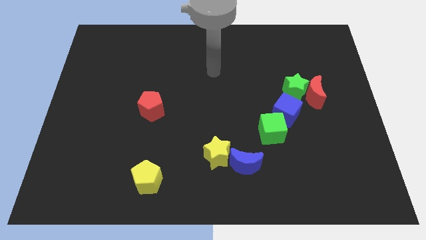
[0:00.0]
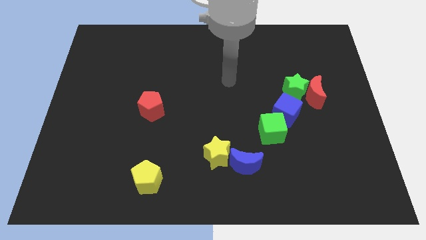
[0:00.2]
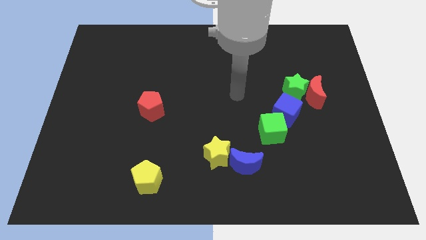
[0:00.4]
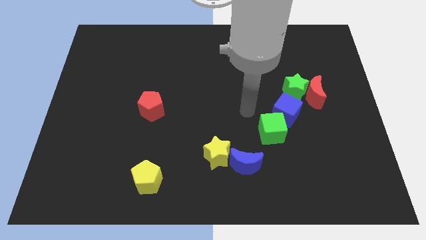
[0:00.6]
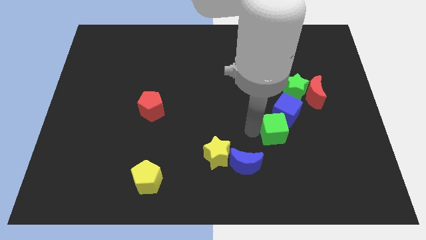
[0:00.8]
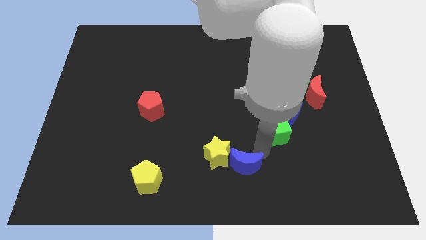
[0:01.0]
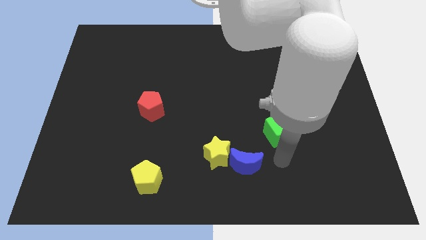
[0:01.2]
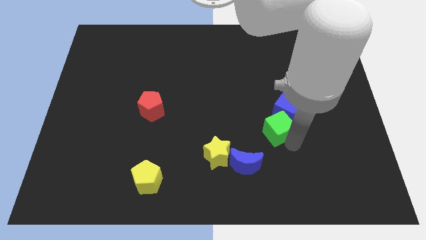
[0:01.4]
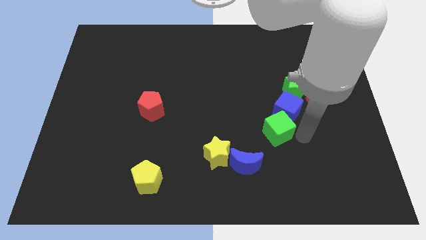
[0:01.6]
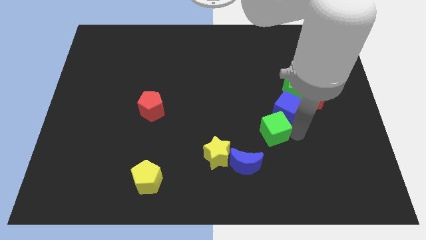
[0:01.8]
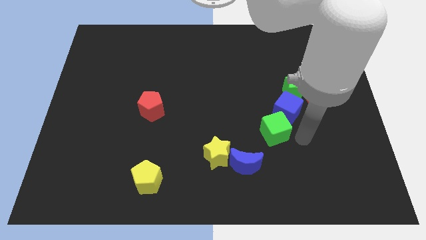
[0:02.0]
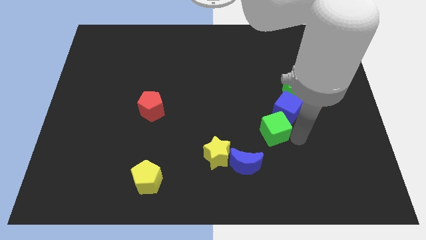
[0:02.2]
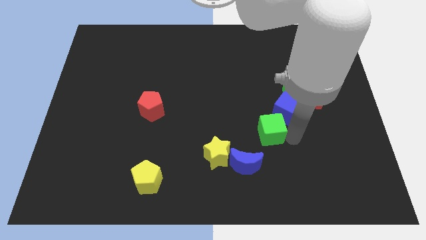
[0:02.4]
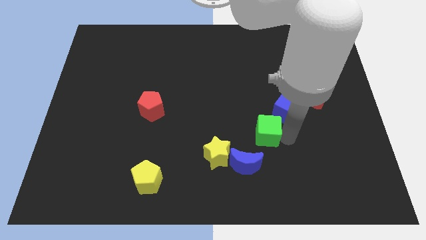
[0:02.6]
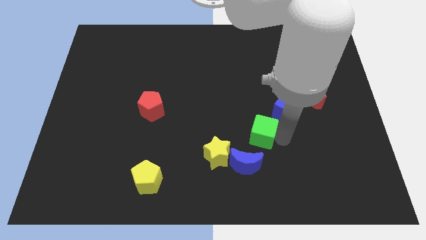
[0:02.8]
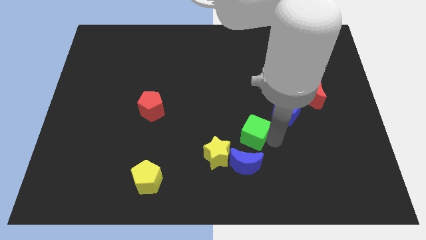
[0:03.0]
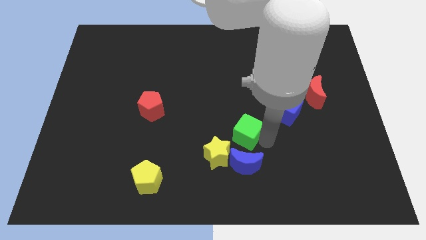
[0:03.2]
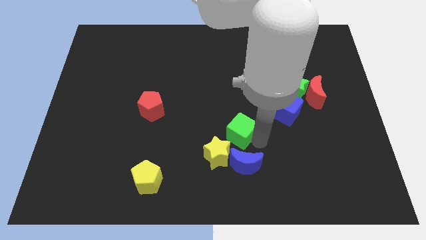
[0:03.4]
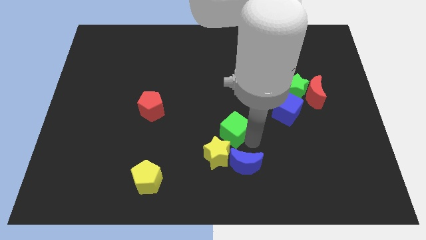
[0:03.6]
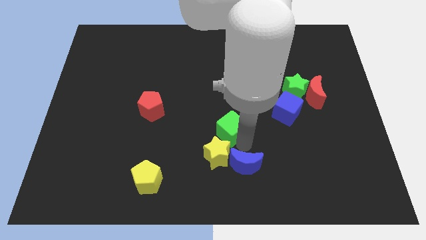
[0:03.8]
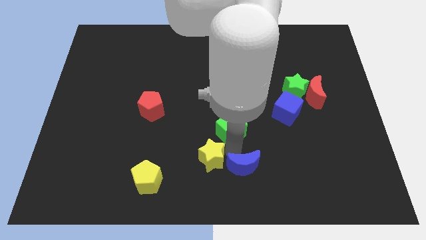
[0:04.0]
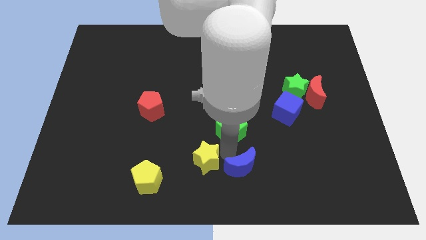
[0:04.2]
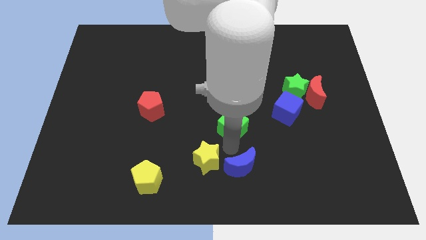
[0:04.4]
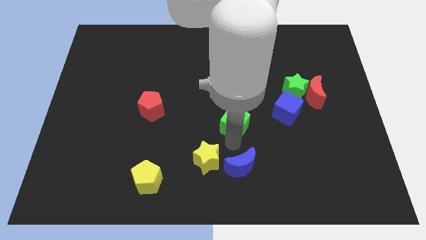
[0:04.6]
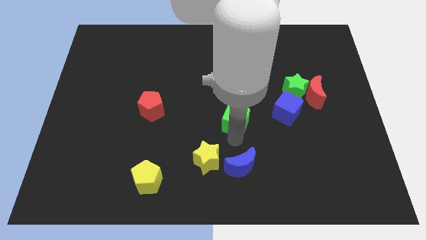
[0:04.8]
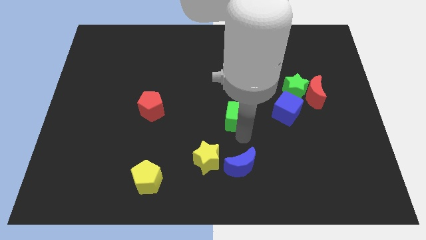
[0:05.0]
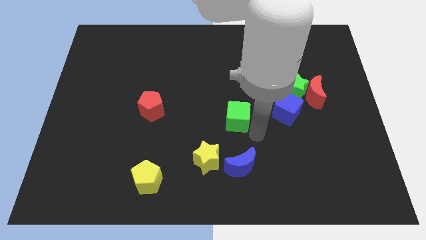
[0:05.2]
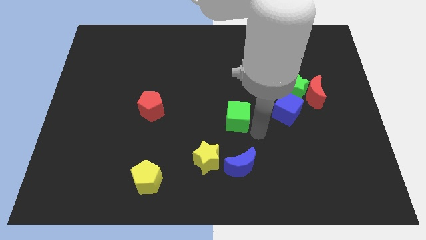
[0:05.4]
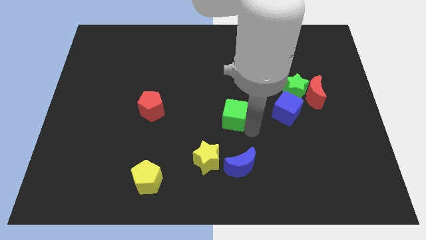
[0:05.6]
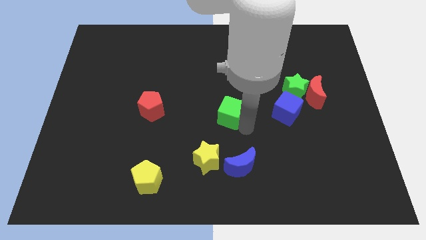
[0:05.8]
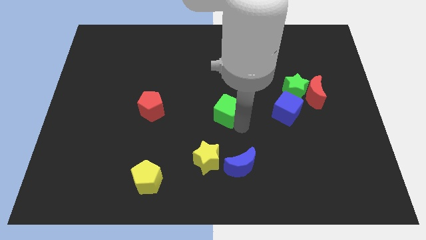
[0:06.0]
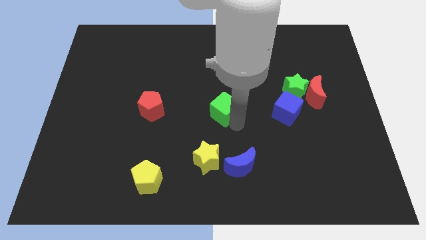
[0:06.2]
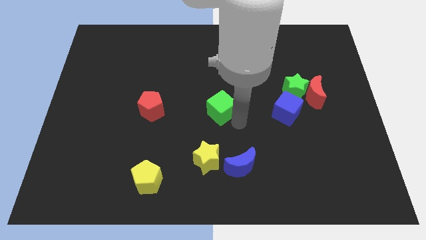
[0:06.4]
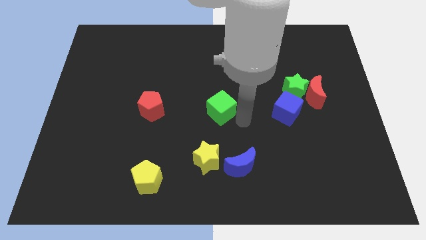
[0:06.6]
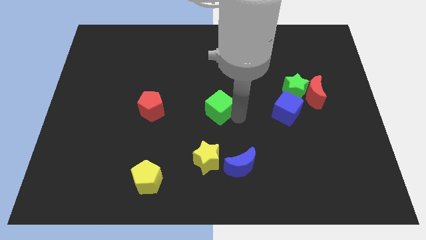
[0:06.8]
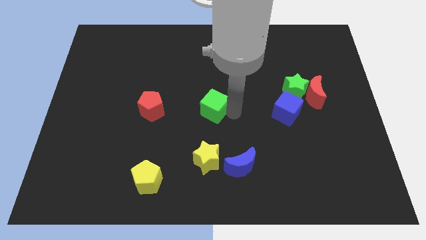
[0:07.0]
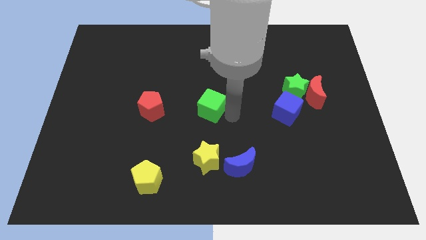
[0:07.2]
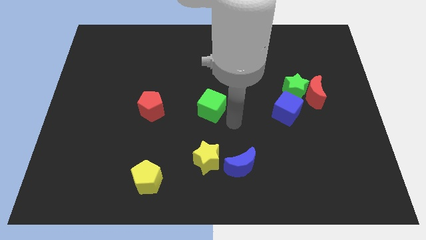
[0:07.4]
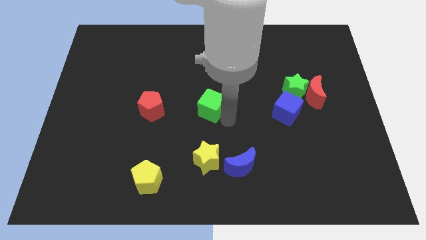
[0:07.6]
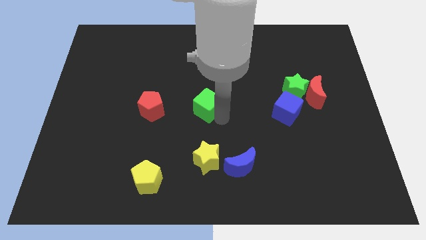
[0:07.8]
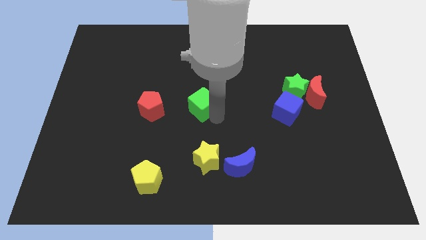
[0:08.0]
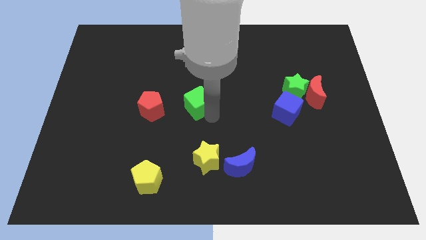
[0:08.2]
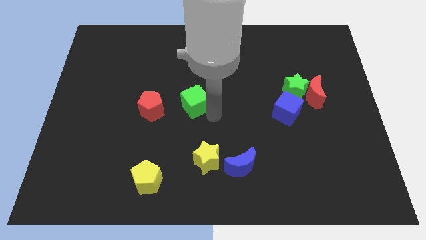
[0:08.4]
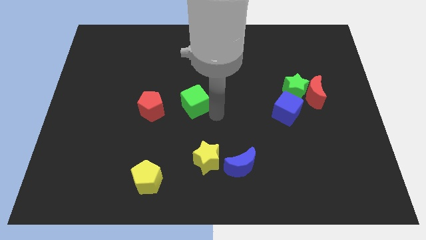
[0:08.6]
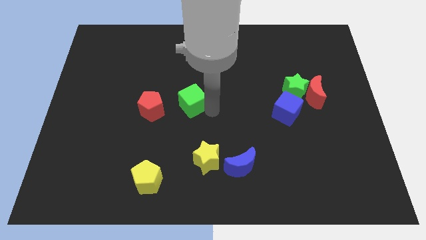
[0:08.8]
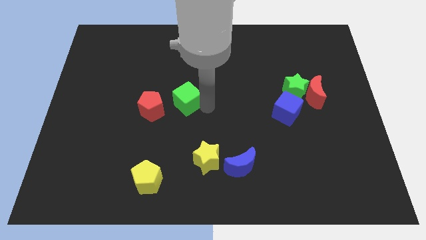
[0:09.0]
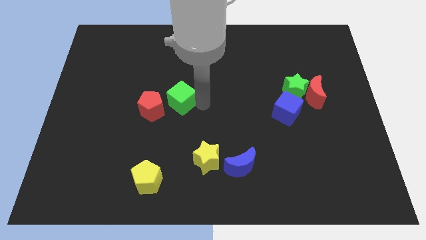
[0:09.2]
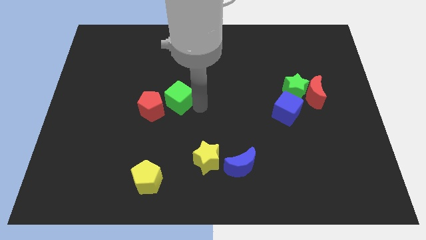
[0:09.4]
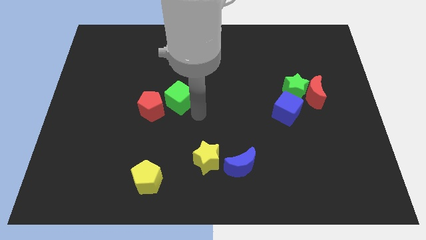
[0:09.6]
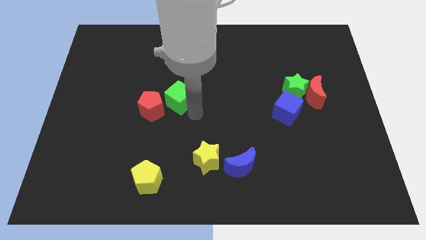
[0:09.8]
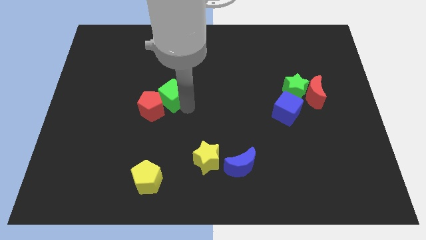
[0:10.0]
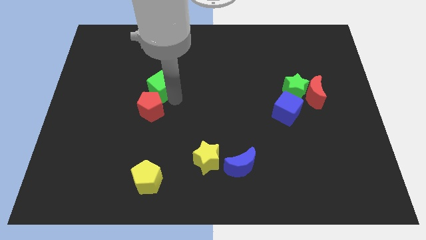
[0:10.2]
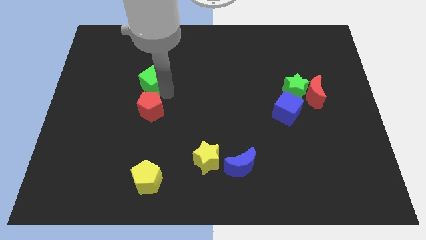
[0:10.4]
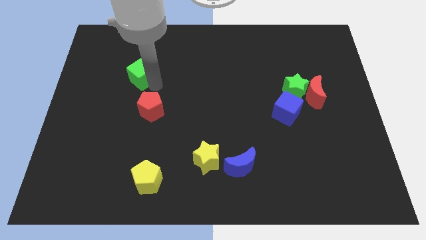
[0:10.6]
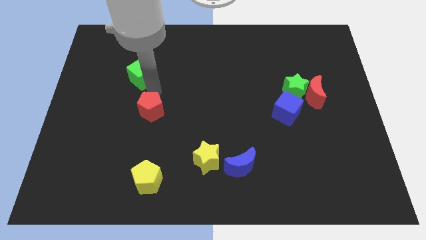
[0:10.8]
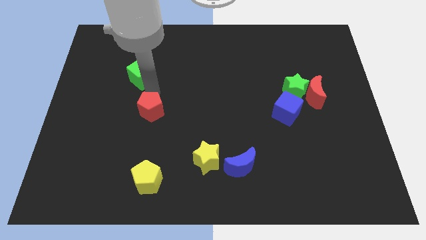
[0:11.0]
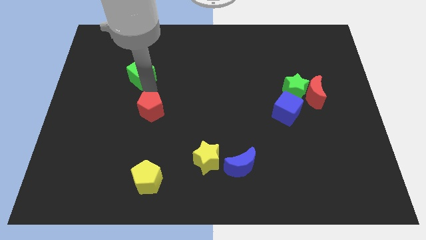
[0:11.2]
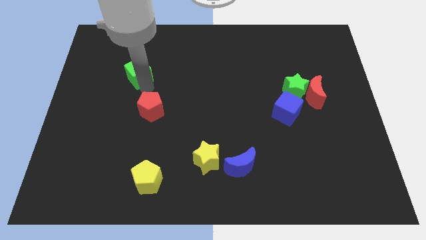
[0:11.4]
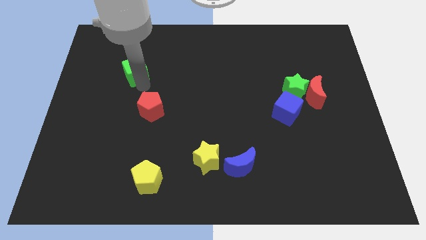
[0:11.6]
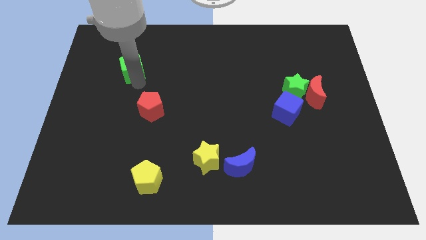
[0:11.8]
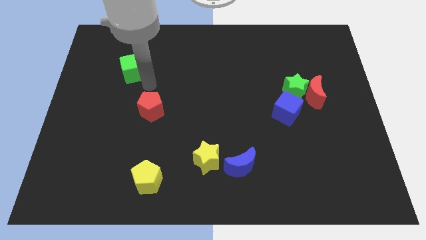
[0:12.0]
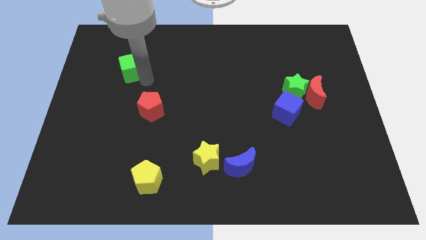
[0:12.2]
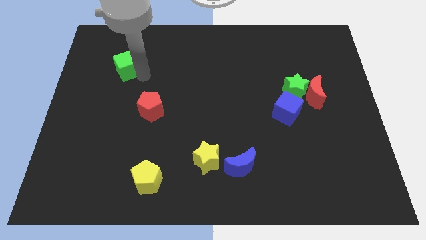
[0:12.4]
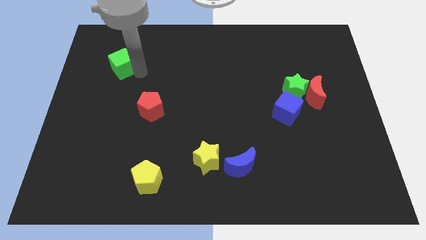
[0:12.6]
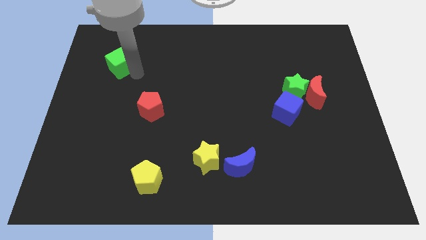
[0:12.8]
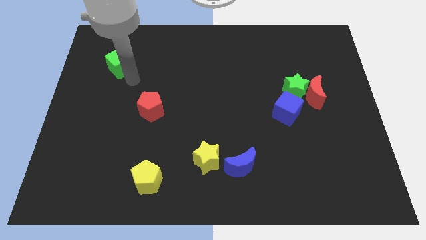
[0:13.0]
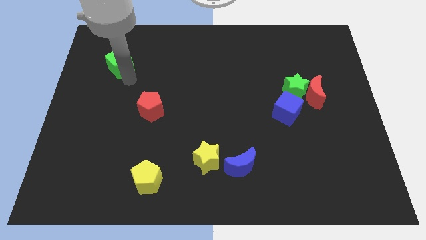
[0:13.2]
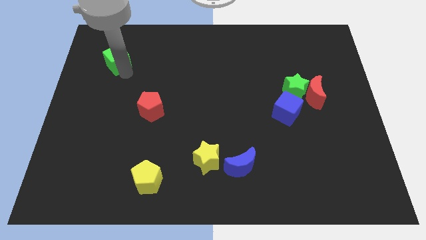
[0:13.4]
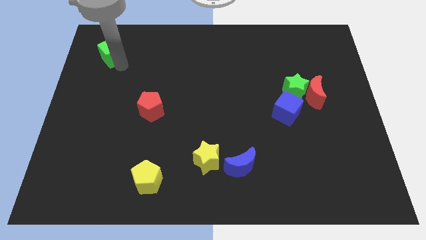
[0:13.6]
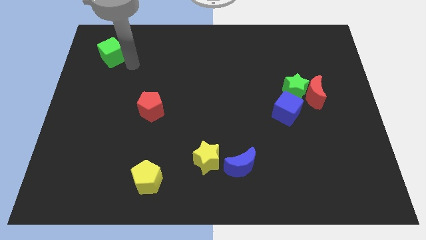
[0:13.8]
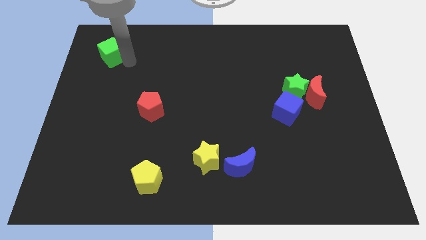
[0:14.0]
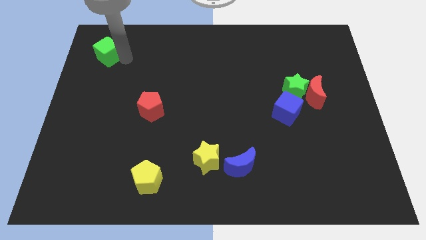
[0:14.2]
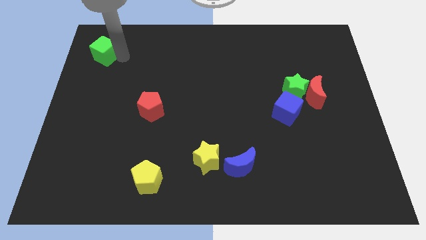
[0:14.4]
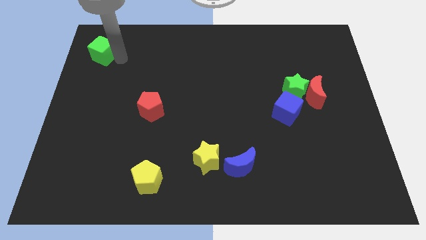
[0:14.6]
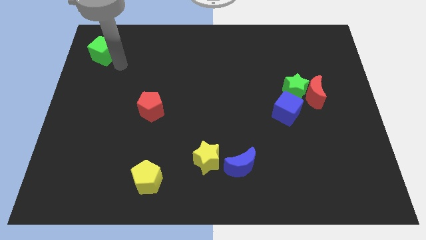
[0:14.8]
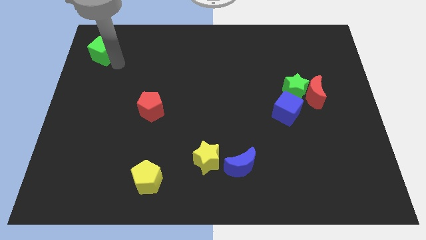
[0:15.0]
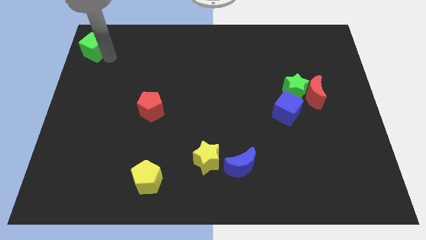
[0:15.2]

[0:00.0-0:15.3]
slide the green cube to the upper left corner
